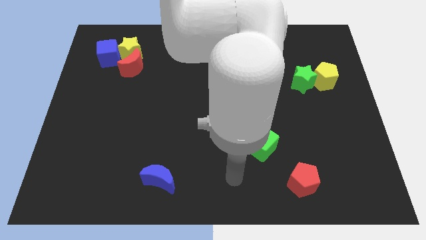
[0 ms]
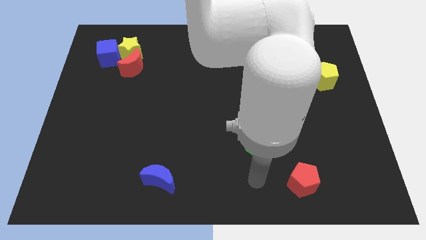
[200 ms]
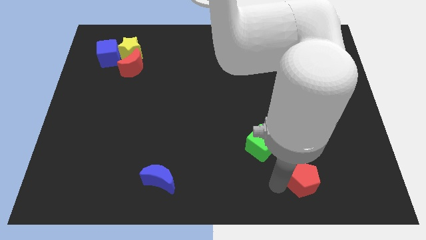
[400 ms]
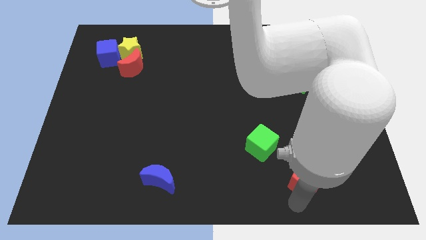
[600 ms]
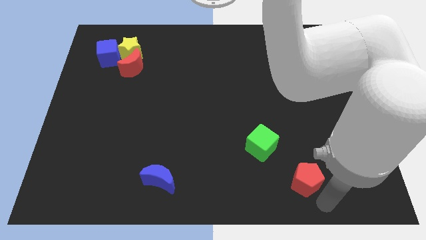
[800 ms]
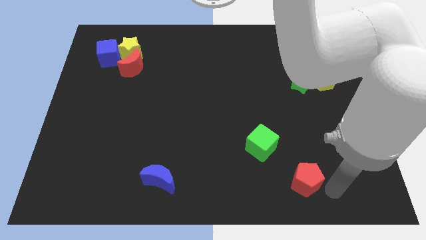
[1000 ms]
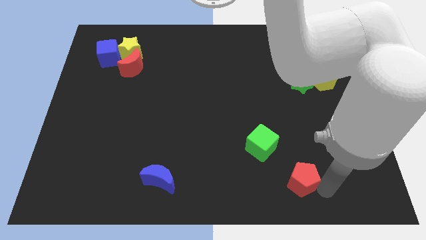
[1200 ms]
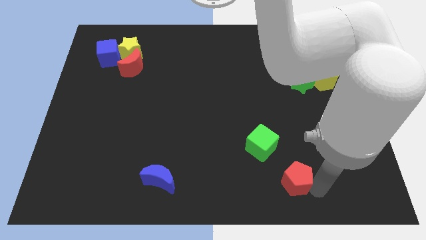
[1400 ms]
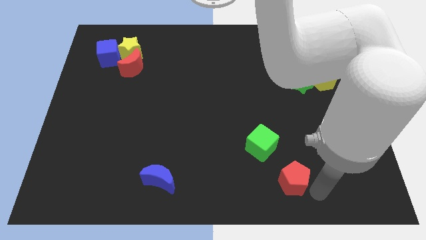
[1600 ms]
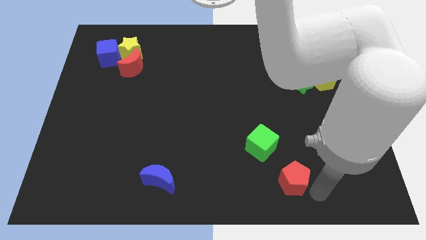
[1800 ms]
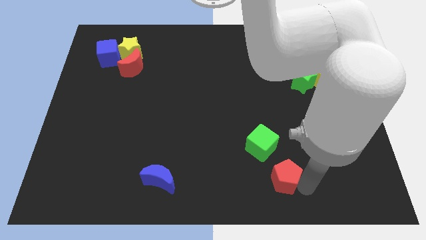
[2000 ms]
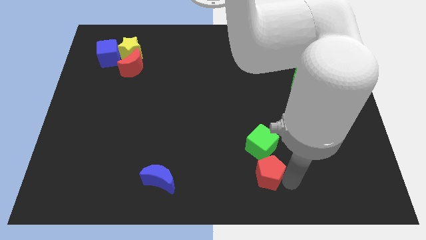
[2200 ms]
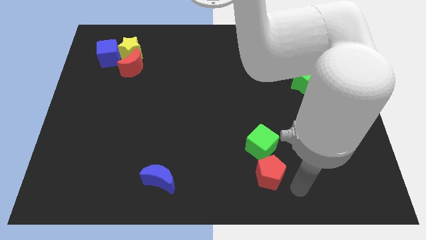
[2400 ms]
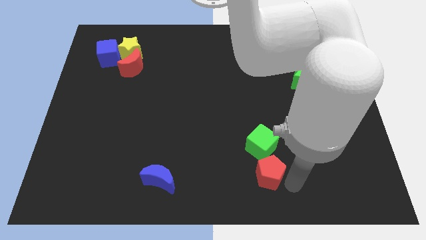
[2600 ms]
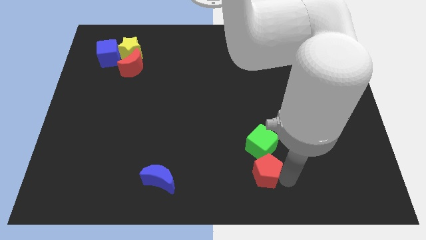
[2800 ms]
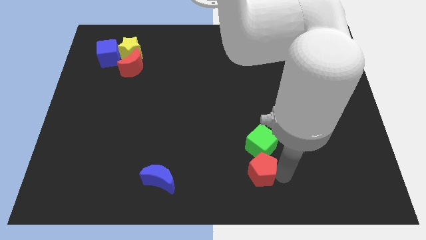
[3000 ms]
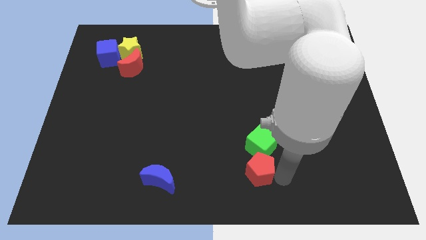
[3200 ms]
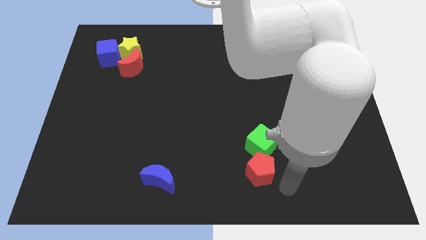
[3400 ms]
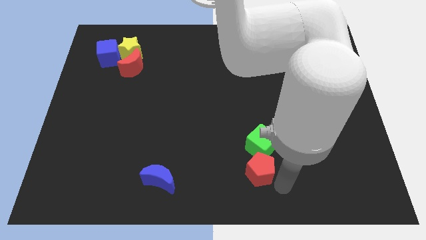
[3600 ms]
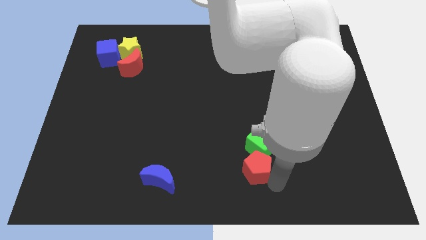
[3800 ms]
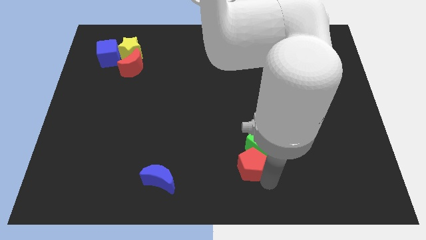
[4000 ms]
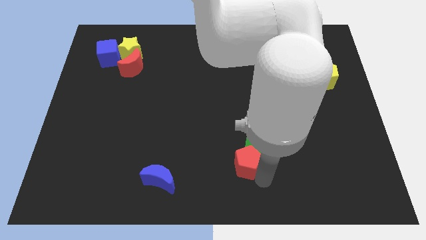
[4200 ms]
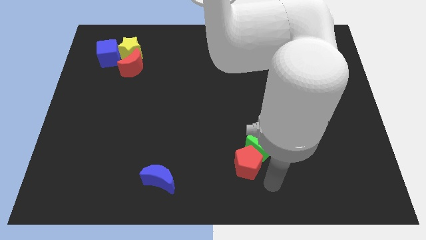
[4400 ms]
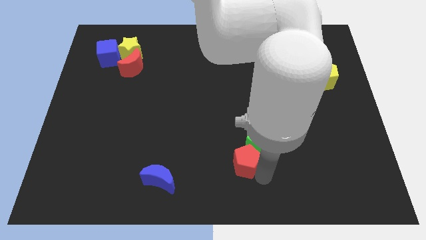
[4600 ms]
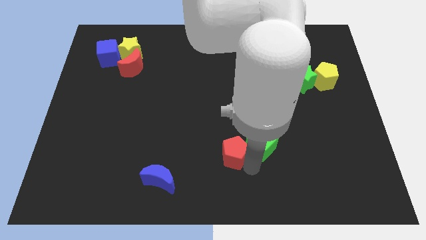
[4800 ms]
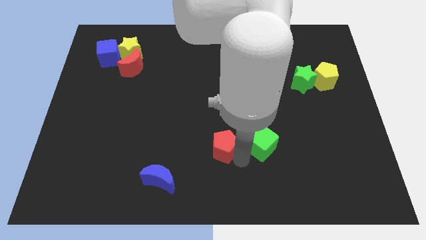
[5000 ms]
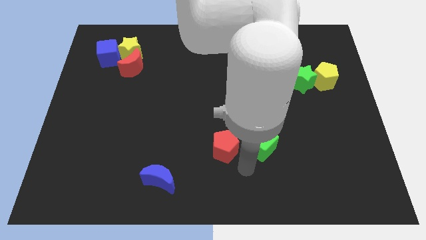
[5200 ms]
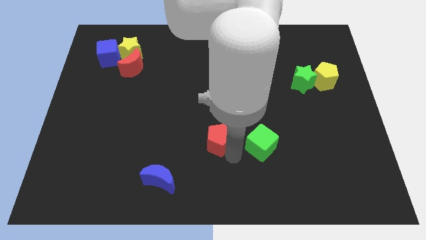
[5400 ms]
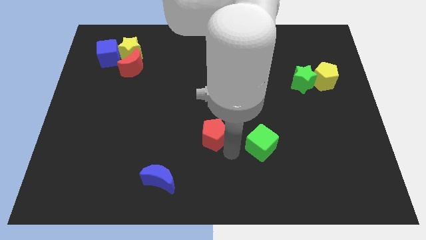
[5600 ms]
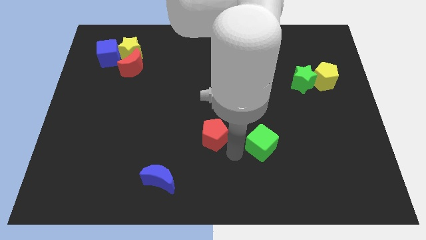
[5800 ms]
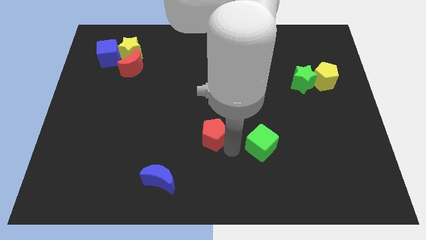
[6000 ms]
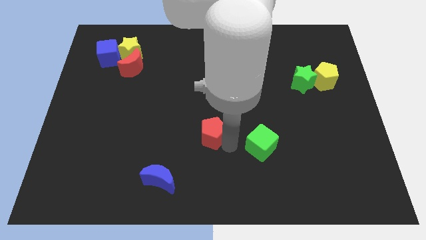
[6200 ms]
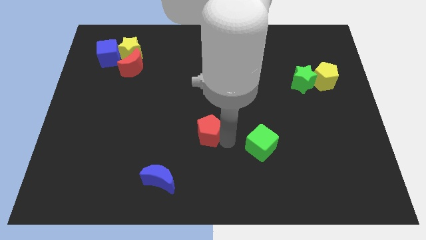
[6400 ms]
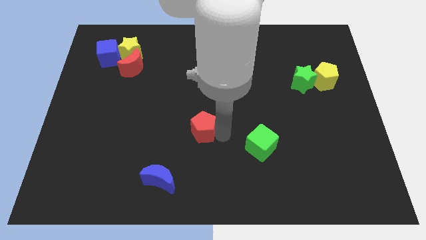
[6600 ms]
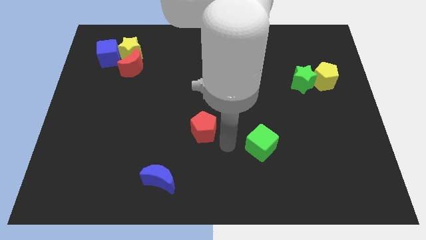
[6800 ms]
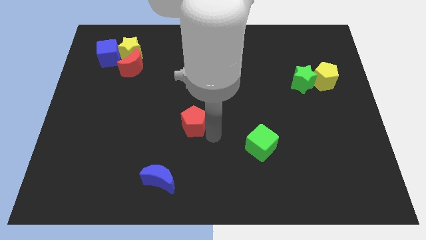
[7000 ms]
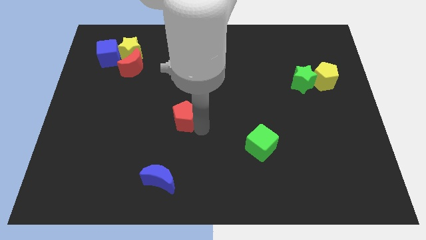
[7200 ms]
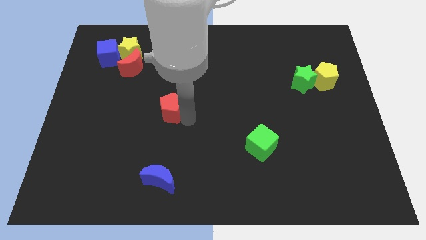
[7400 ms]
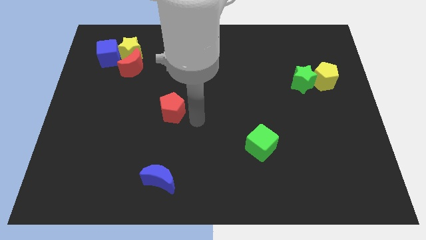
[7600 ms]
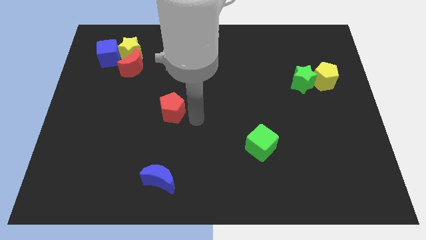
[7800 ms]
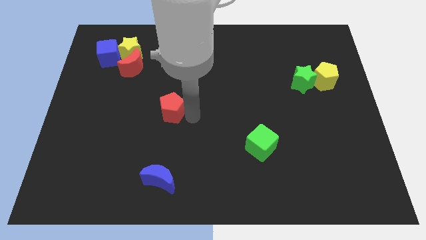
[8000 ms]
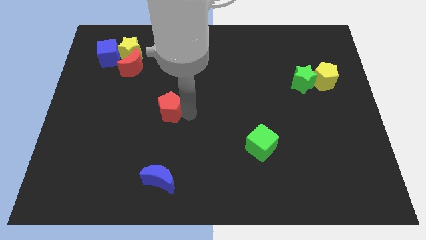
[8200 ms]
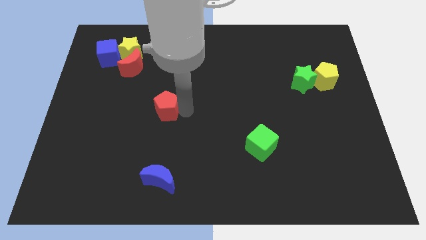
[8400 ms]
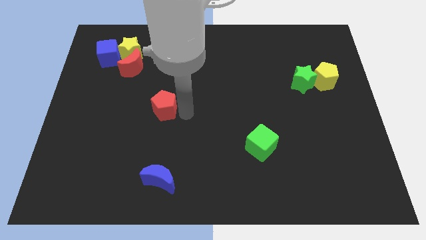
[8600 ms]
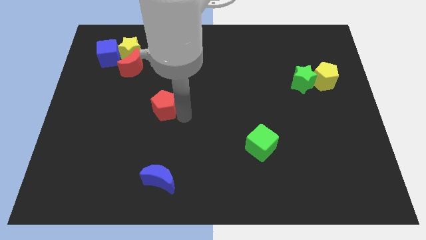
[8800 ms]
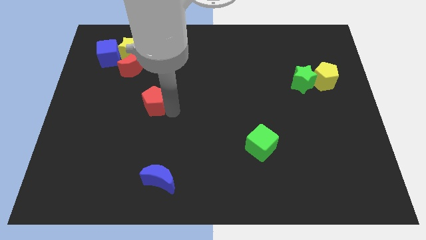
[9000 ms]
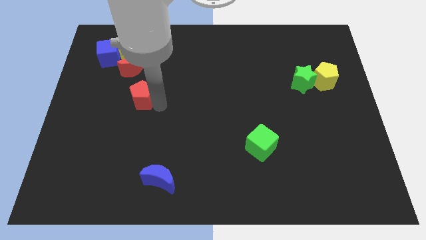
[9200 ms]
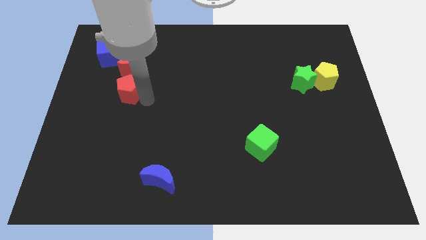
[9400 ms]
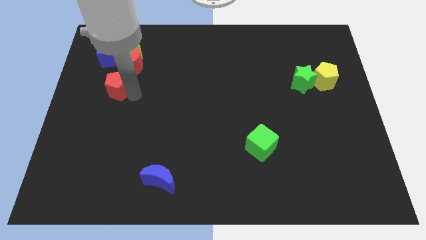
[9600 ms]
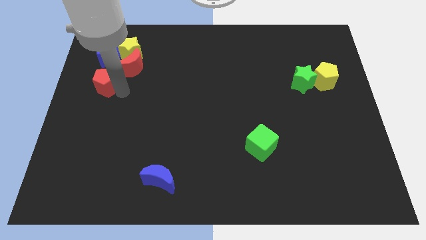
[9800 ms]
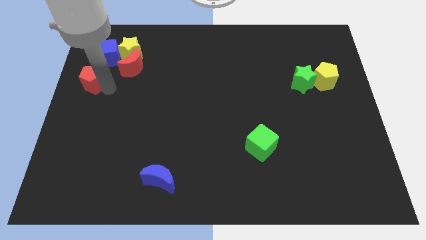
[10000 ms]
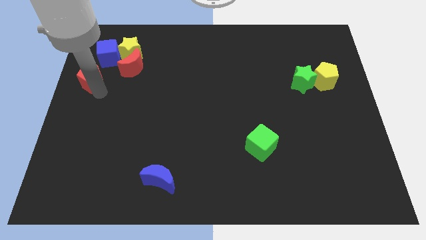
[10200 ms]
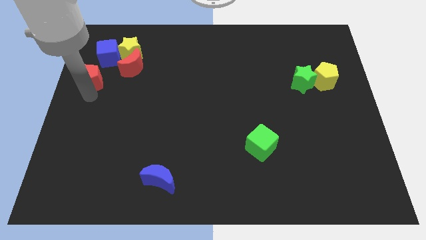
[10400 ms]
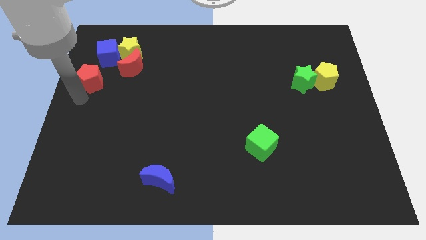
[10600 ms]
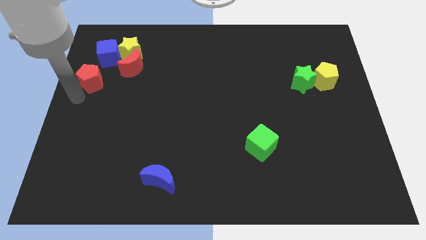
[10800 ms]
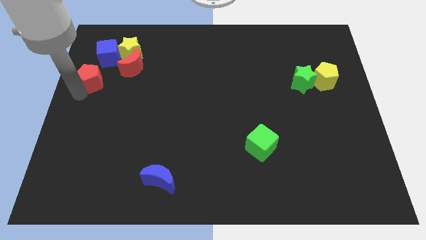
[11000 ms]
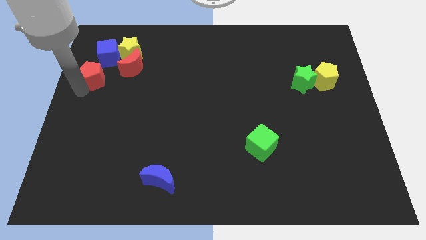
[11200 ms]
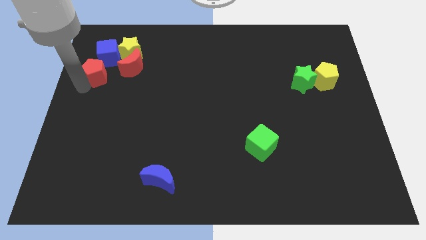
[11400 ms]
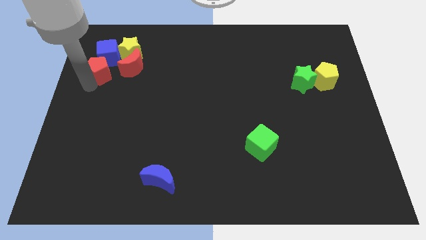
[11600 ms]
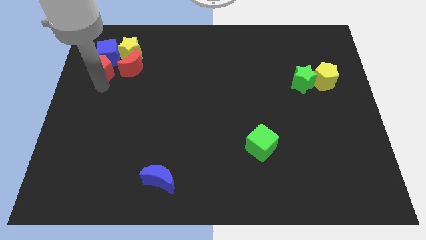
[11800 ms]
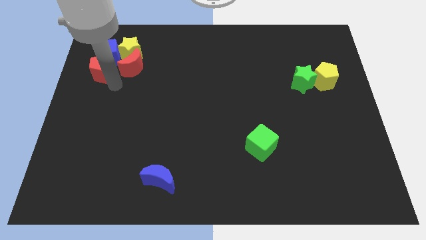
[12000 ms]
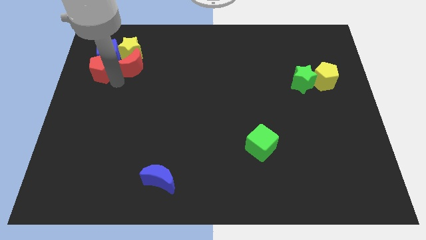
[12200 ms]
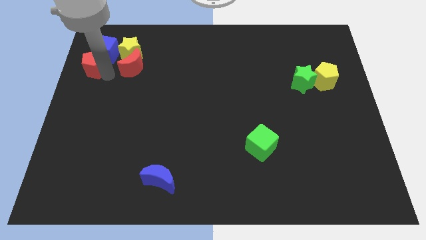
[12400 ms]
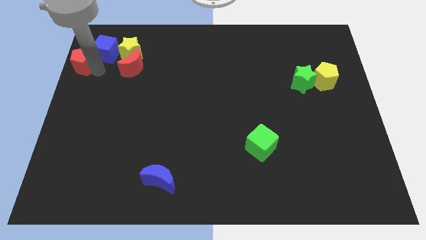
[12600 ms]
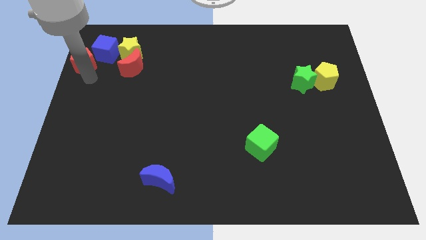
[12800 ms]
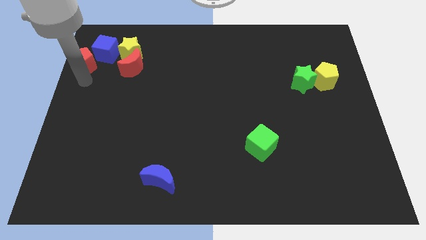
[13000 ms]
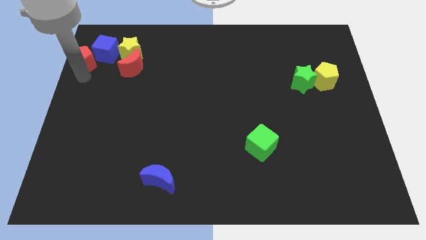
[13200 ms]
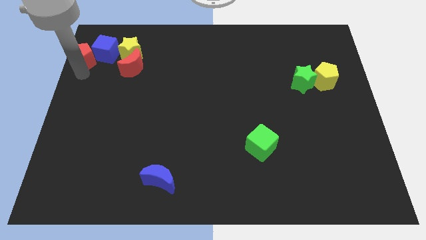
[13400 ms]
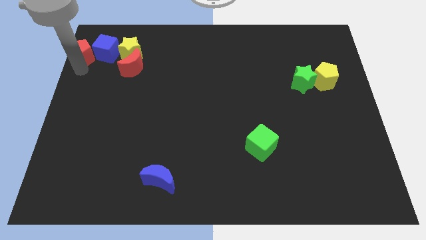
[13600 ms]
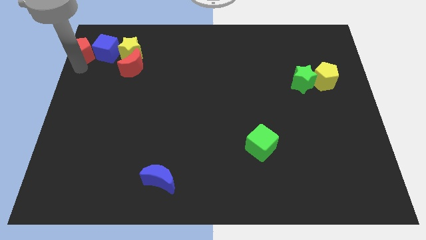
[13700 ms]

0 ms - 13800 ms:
slide the red pentagon to the top left
